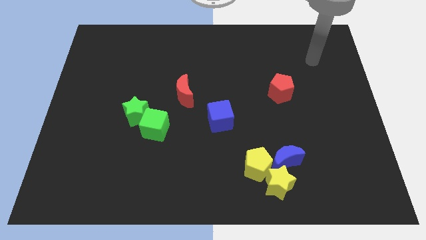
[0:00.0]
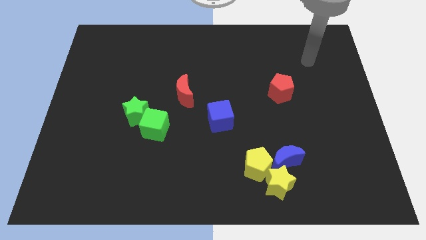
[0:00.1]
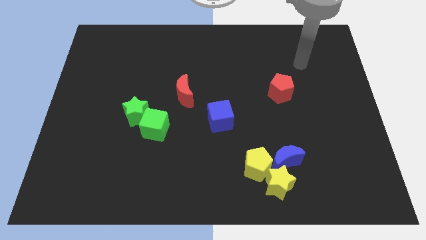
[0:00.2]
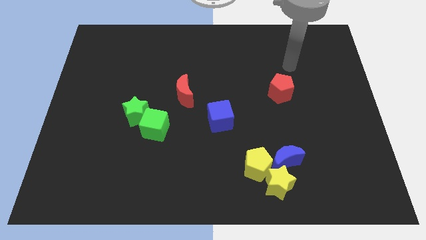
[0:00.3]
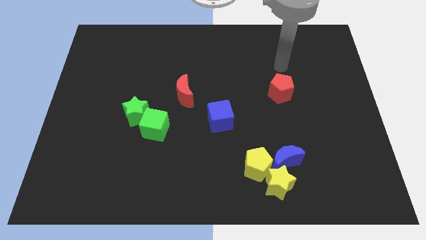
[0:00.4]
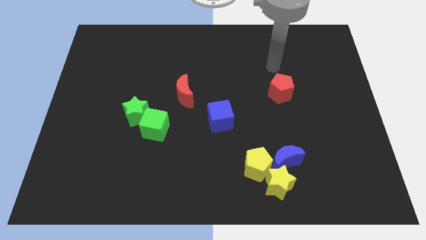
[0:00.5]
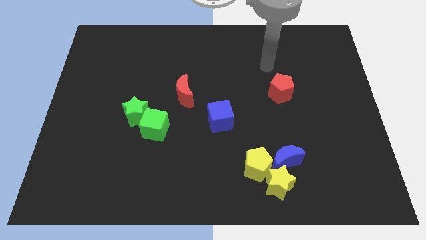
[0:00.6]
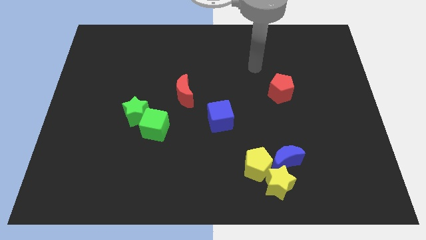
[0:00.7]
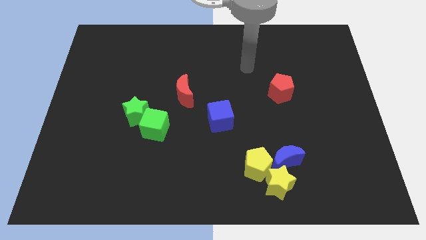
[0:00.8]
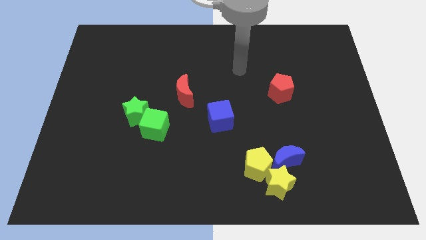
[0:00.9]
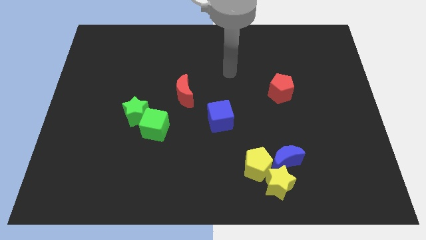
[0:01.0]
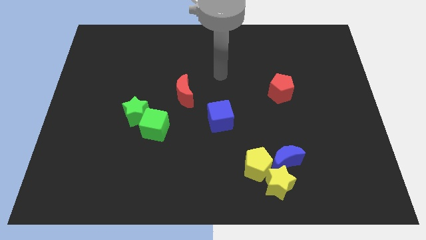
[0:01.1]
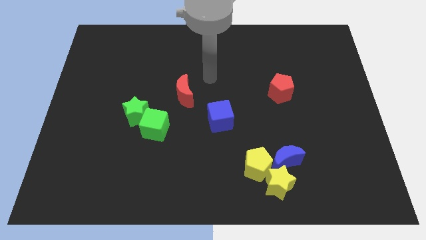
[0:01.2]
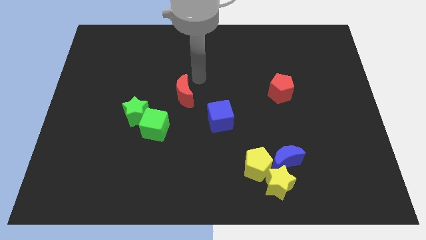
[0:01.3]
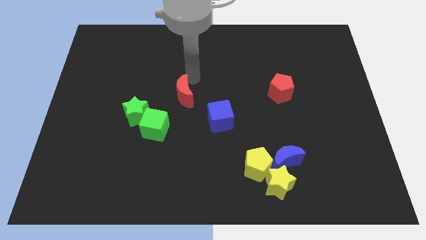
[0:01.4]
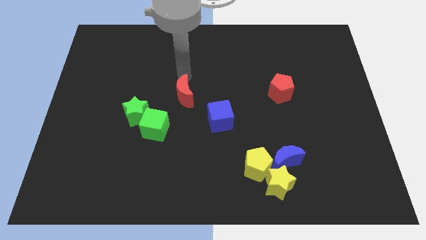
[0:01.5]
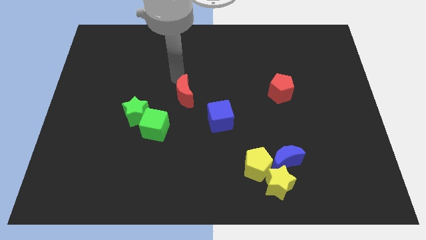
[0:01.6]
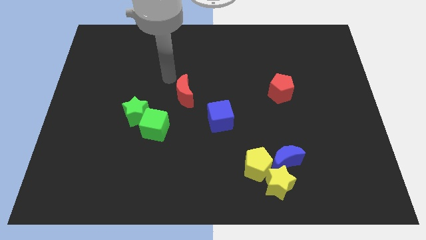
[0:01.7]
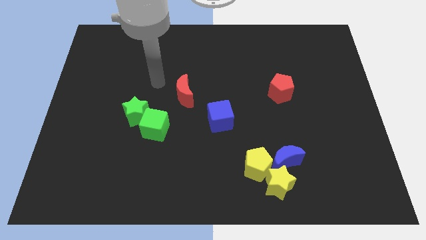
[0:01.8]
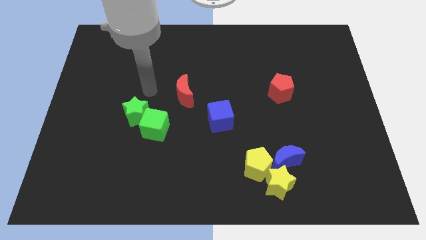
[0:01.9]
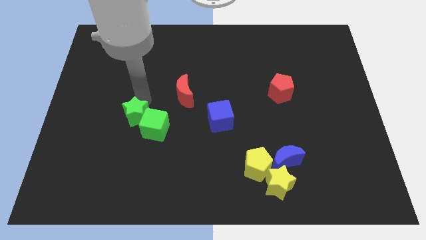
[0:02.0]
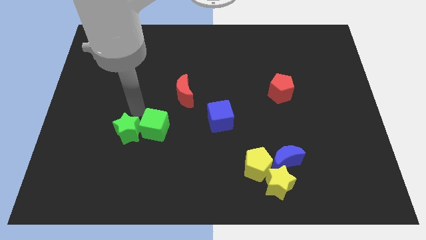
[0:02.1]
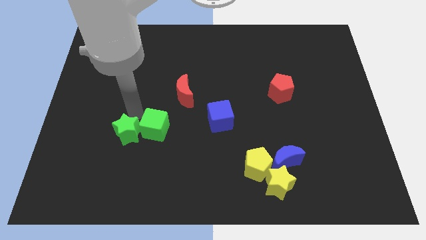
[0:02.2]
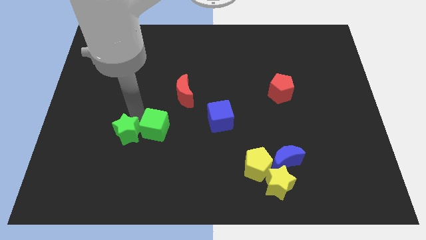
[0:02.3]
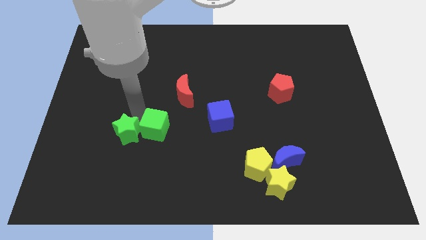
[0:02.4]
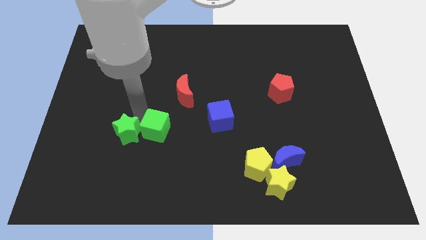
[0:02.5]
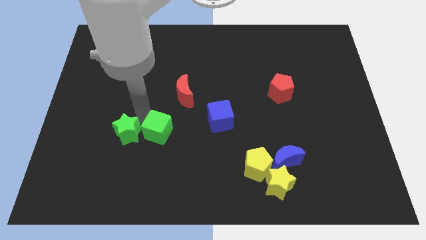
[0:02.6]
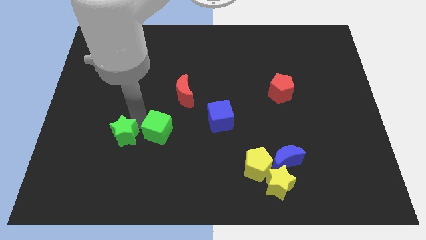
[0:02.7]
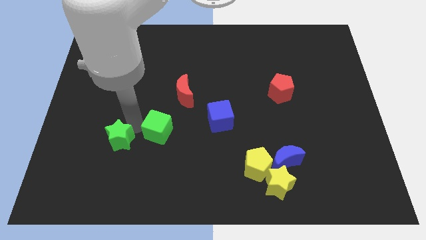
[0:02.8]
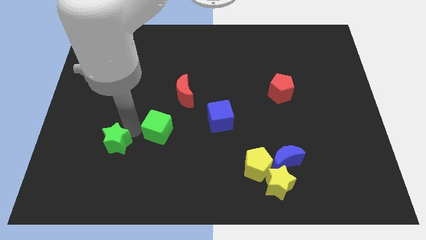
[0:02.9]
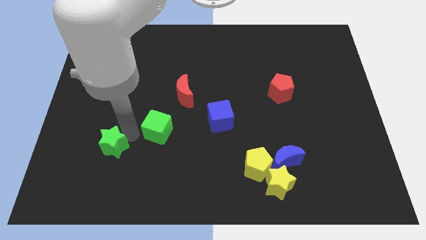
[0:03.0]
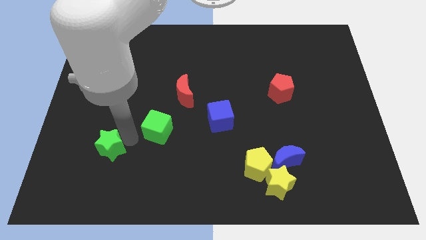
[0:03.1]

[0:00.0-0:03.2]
pull the green cube apart from the green star

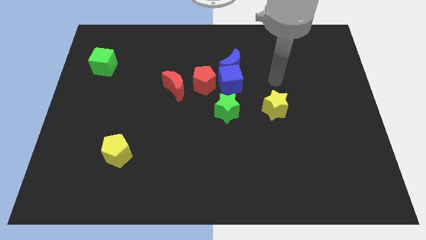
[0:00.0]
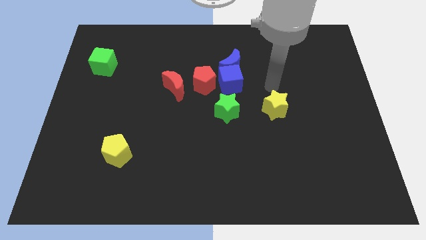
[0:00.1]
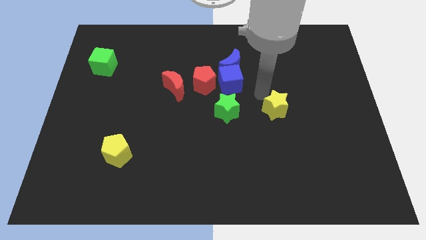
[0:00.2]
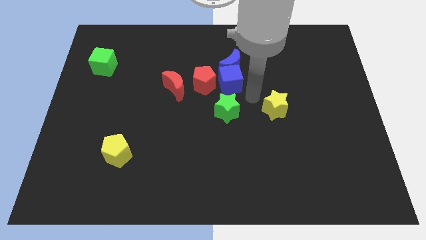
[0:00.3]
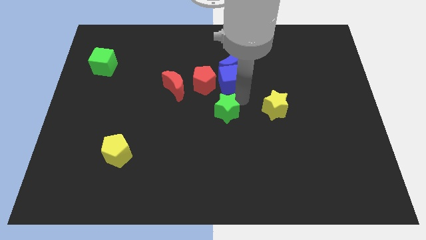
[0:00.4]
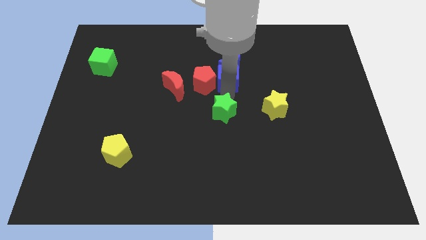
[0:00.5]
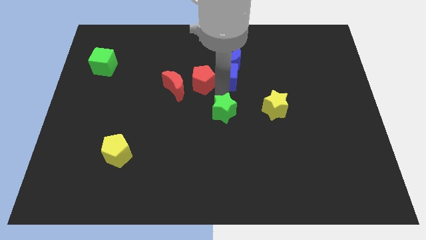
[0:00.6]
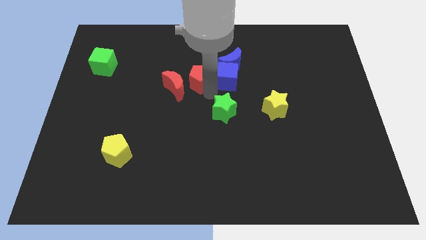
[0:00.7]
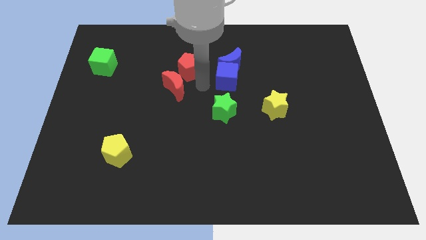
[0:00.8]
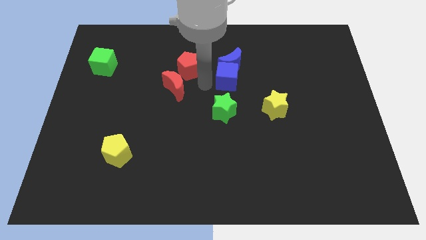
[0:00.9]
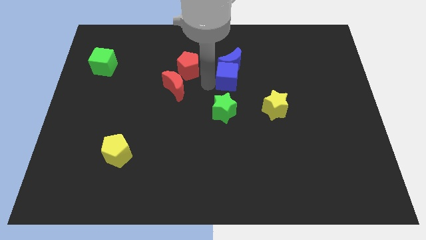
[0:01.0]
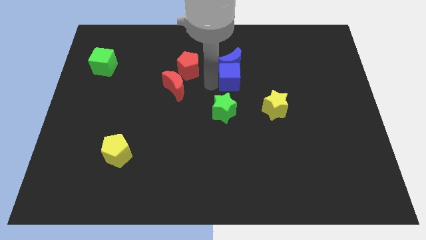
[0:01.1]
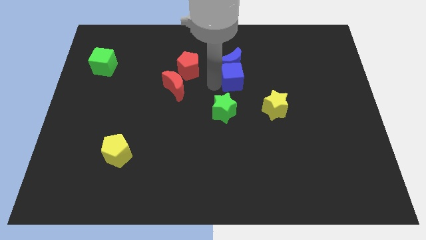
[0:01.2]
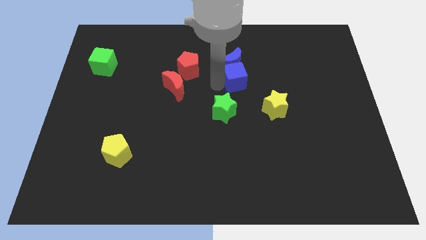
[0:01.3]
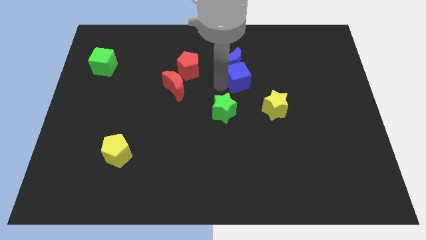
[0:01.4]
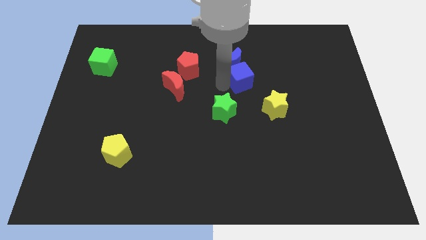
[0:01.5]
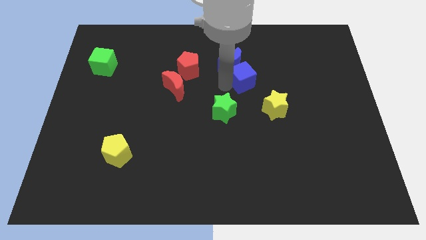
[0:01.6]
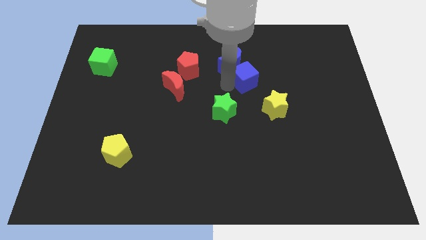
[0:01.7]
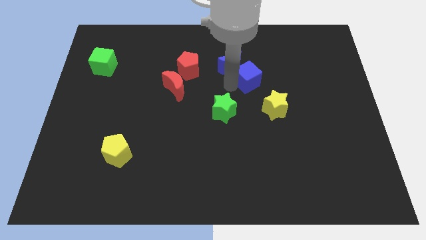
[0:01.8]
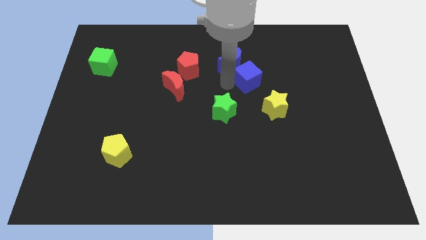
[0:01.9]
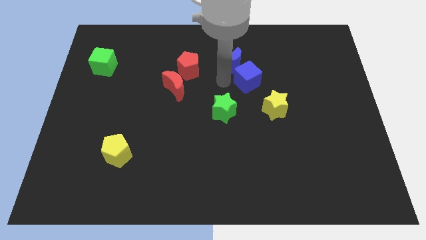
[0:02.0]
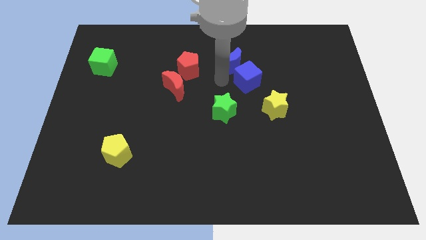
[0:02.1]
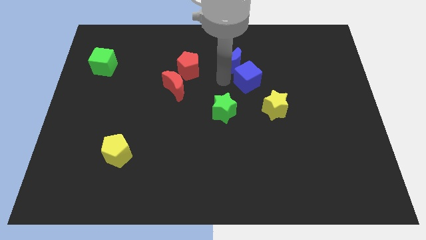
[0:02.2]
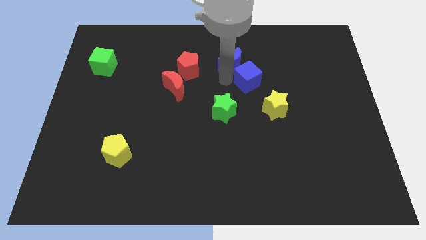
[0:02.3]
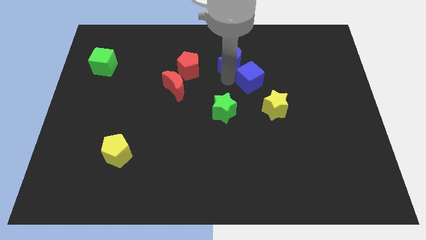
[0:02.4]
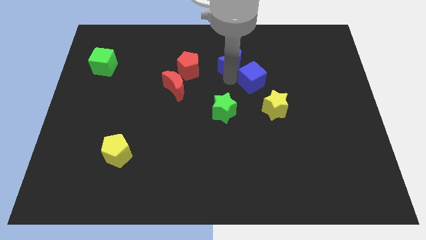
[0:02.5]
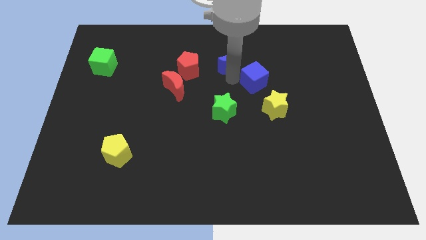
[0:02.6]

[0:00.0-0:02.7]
pull the blue cube apart from the group

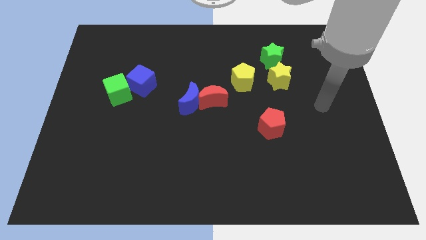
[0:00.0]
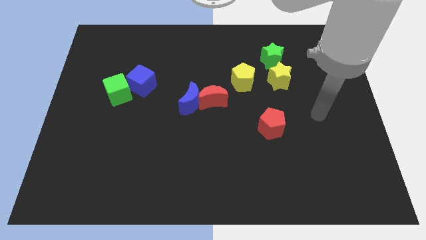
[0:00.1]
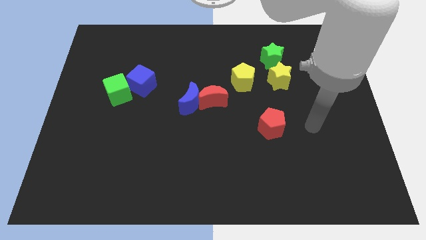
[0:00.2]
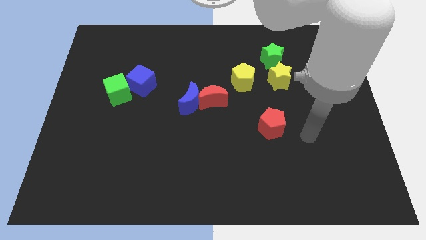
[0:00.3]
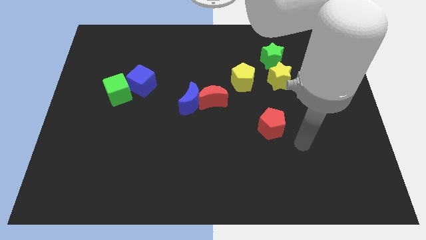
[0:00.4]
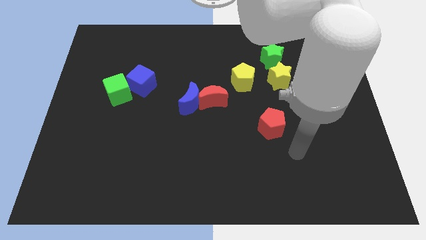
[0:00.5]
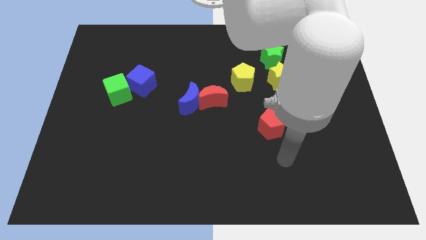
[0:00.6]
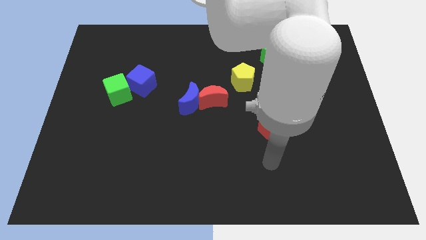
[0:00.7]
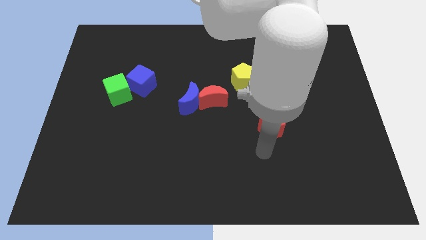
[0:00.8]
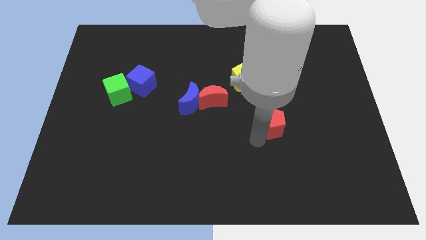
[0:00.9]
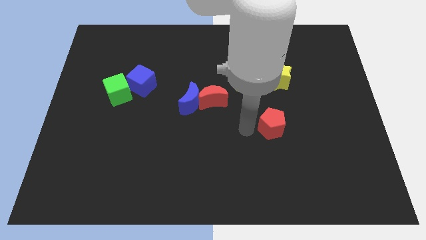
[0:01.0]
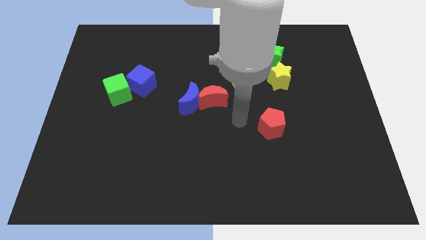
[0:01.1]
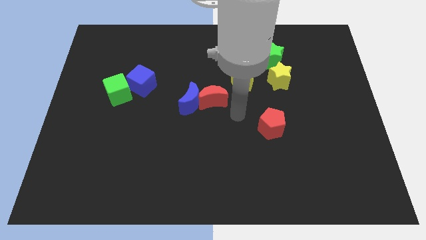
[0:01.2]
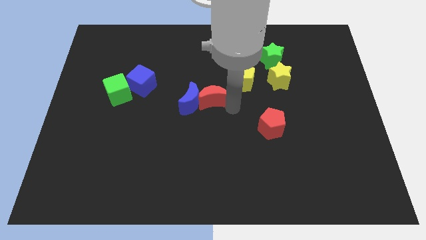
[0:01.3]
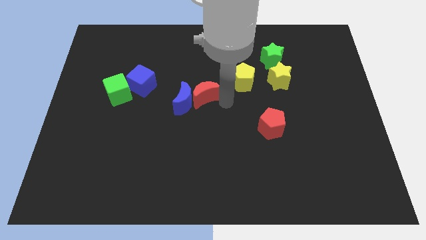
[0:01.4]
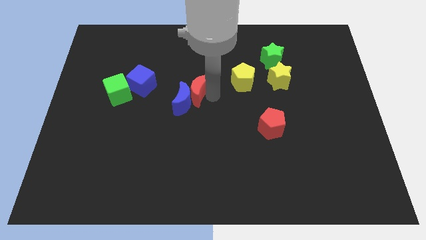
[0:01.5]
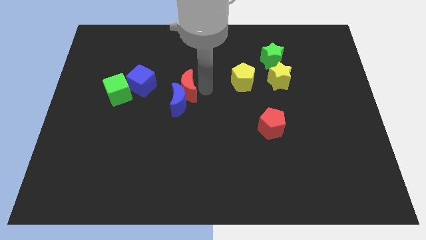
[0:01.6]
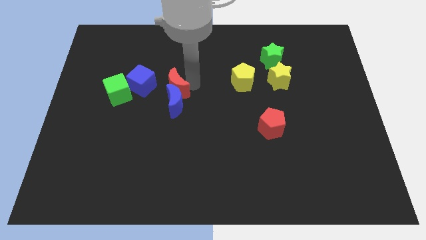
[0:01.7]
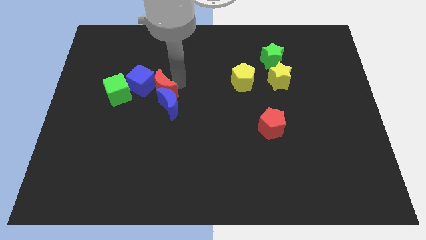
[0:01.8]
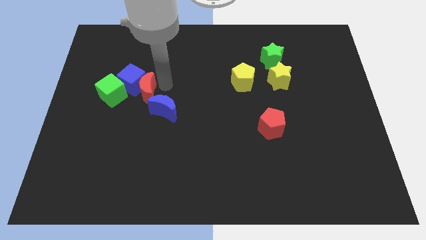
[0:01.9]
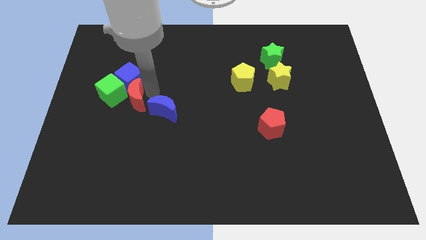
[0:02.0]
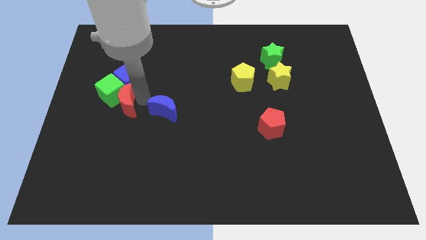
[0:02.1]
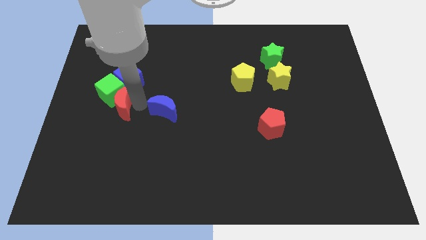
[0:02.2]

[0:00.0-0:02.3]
pull the blue moon apart from the red moon

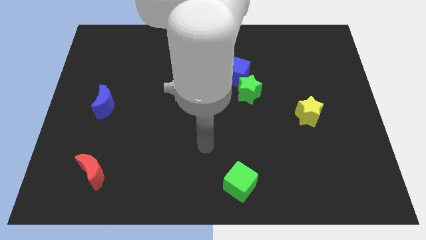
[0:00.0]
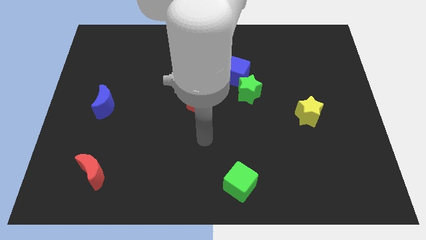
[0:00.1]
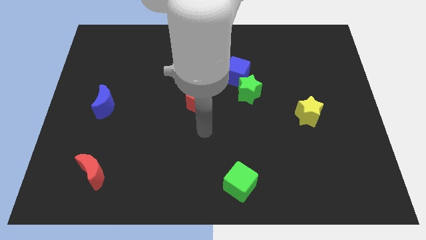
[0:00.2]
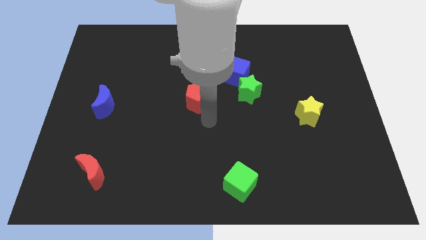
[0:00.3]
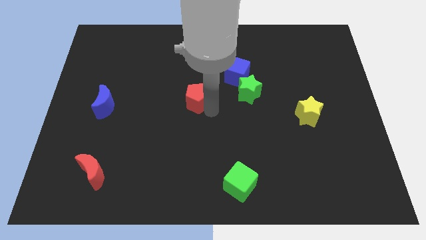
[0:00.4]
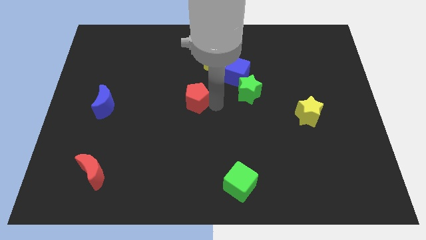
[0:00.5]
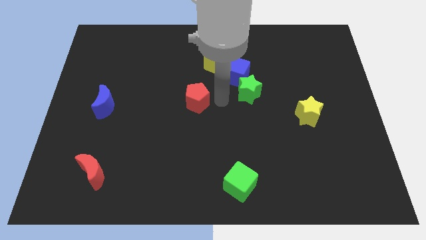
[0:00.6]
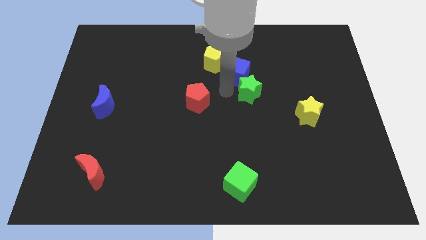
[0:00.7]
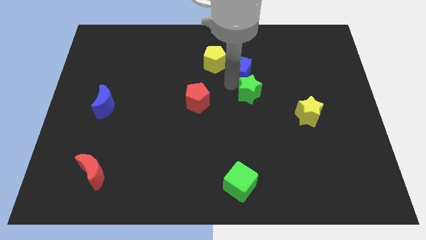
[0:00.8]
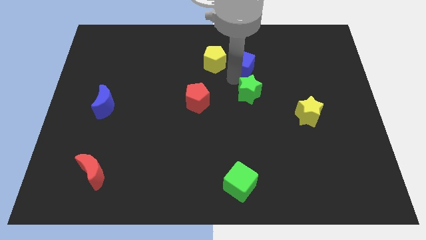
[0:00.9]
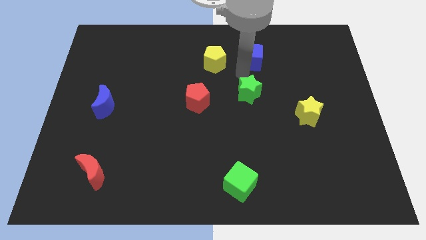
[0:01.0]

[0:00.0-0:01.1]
separate the green star from the blue cube
